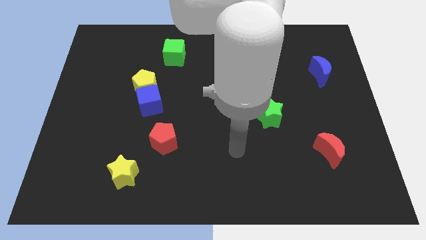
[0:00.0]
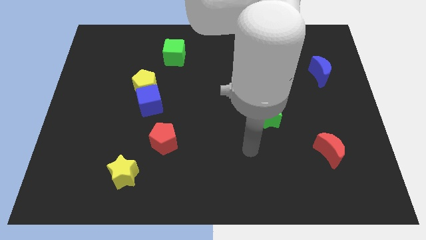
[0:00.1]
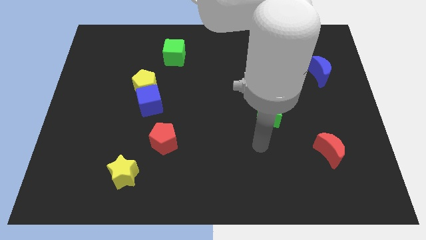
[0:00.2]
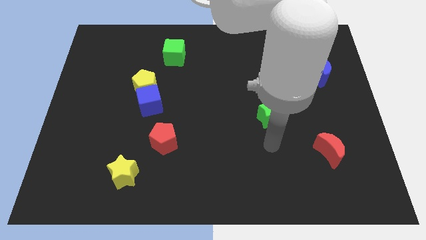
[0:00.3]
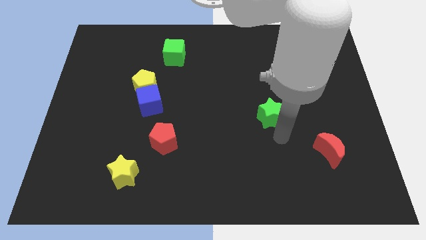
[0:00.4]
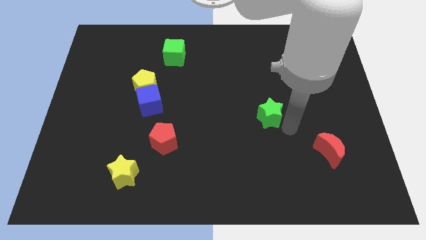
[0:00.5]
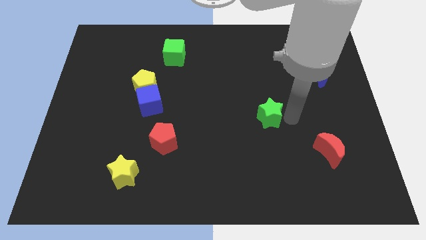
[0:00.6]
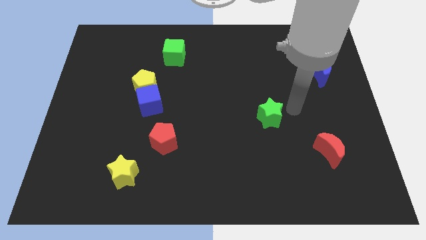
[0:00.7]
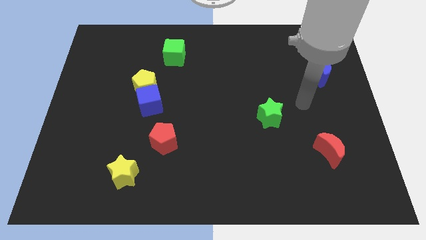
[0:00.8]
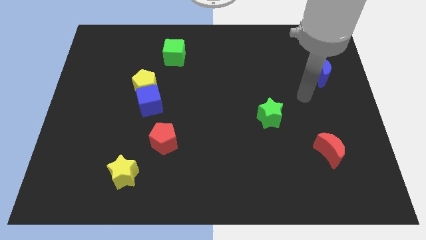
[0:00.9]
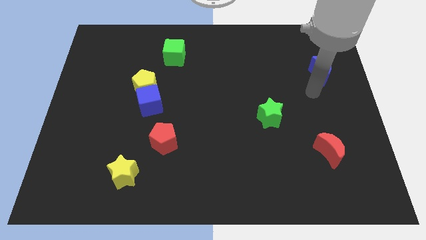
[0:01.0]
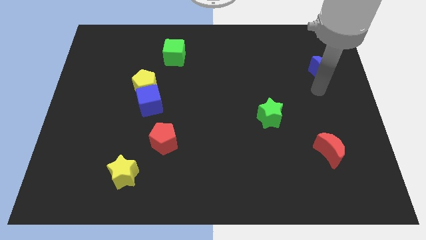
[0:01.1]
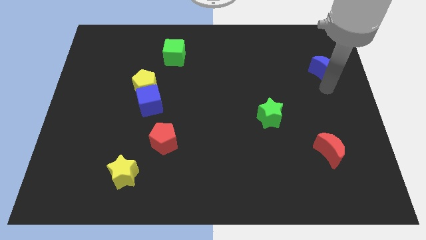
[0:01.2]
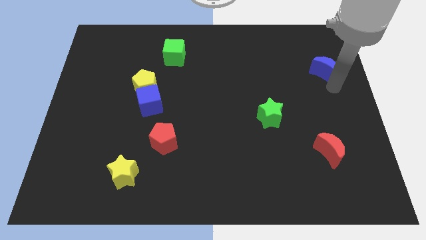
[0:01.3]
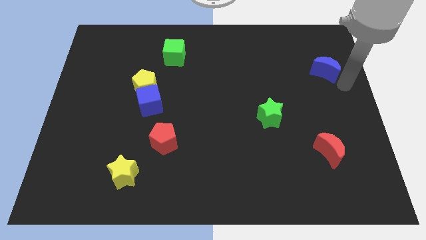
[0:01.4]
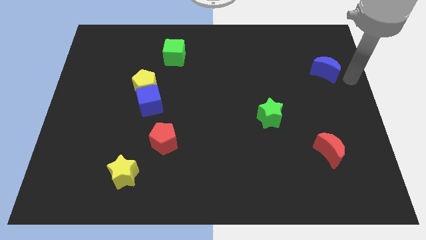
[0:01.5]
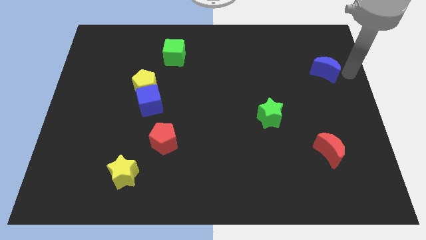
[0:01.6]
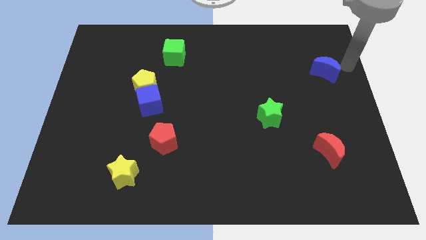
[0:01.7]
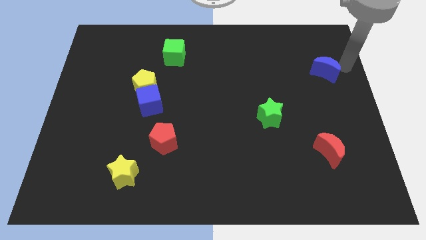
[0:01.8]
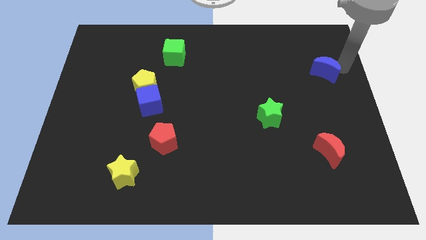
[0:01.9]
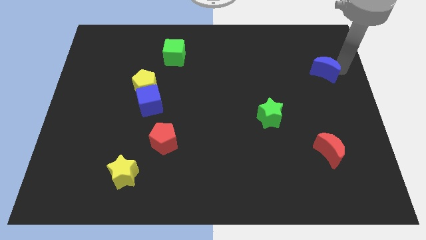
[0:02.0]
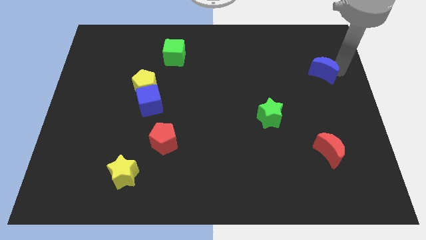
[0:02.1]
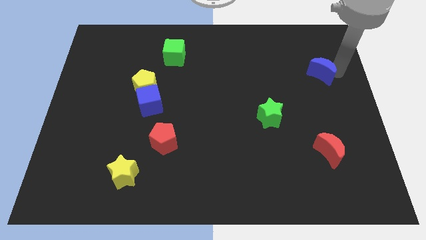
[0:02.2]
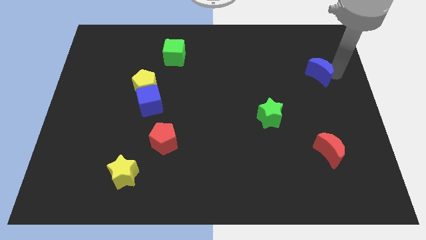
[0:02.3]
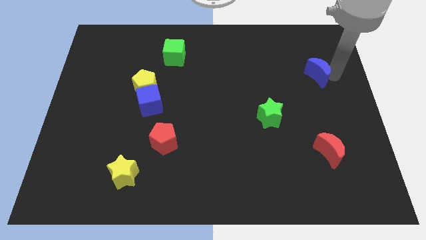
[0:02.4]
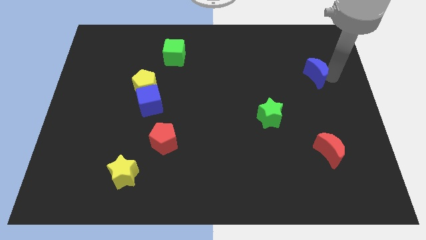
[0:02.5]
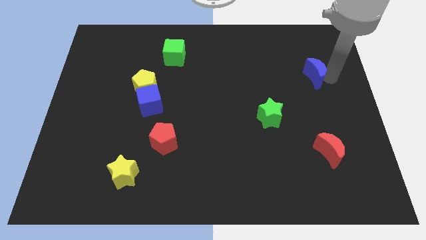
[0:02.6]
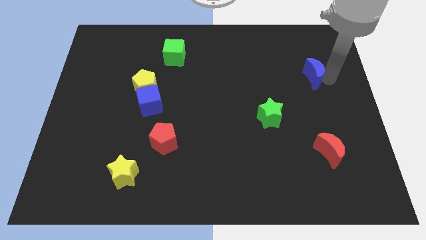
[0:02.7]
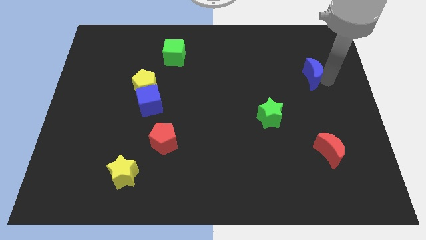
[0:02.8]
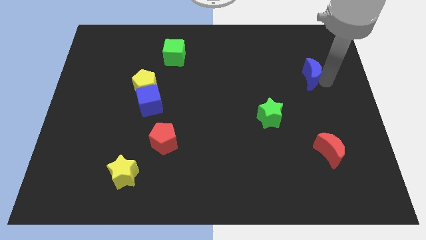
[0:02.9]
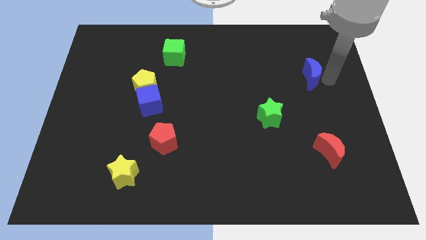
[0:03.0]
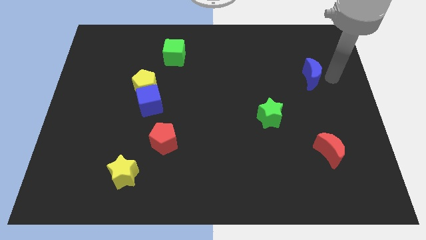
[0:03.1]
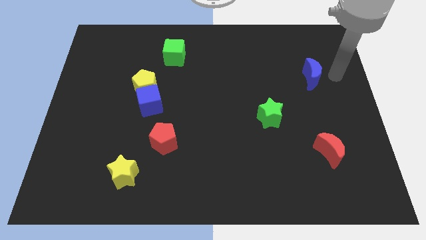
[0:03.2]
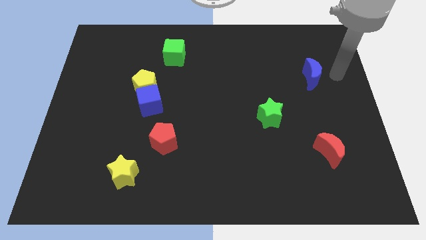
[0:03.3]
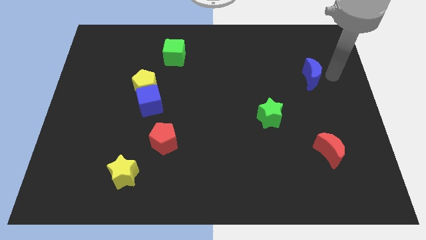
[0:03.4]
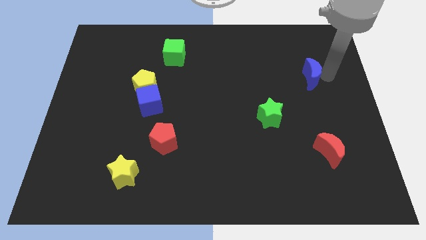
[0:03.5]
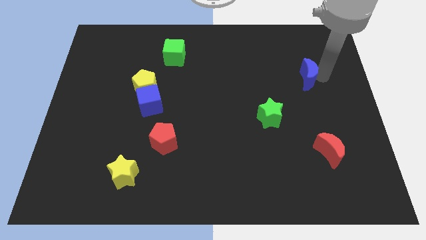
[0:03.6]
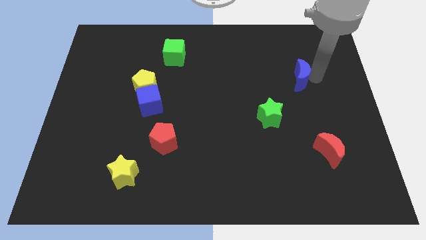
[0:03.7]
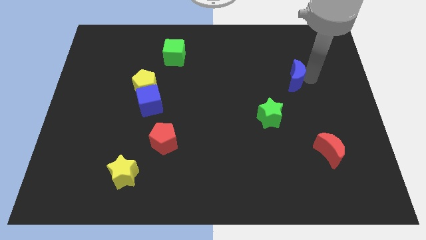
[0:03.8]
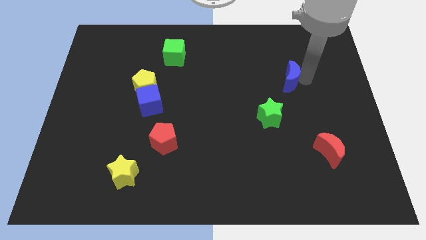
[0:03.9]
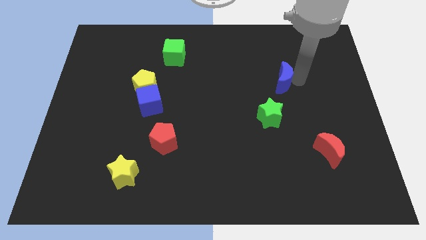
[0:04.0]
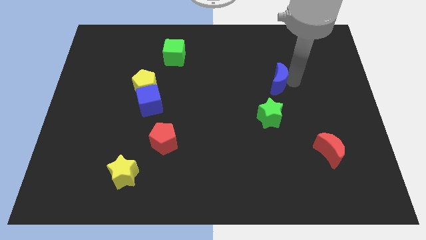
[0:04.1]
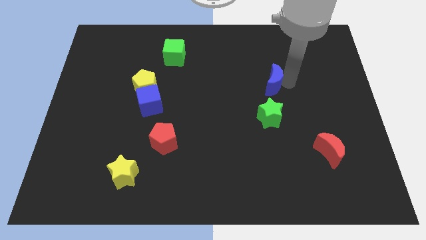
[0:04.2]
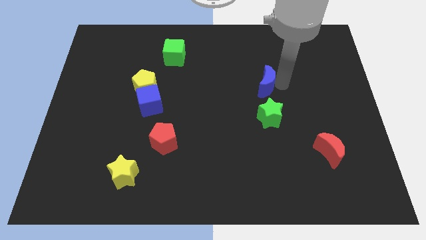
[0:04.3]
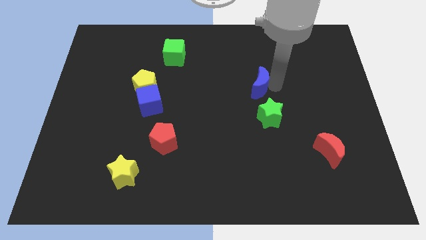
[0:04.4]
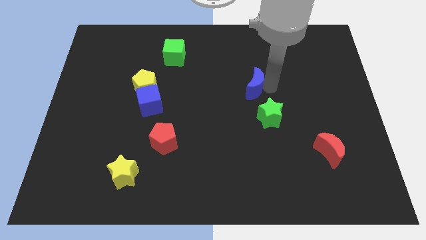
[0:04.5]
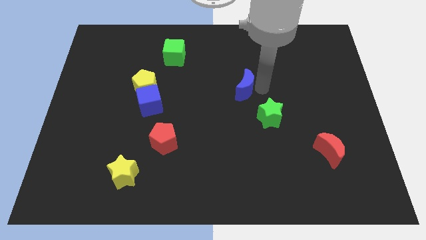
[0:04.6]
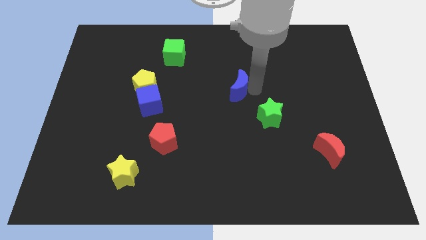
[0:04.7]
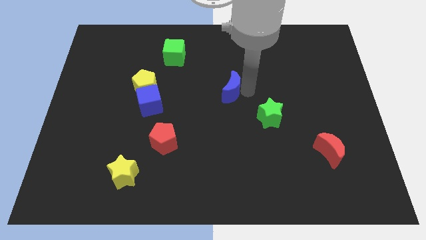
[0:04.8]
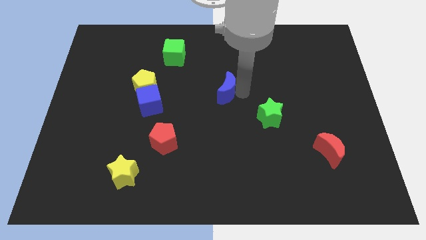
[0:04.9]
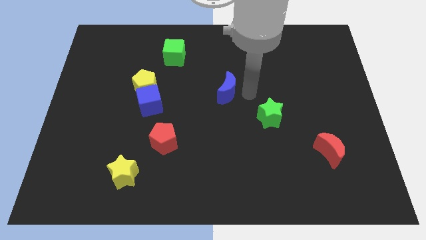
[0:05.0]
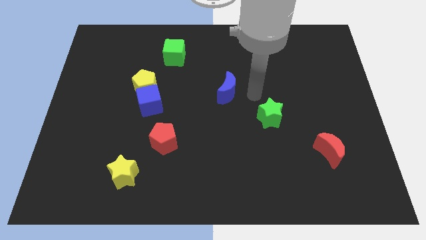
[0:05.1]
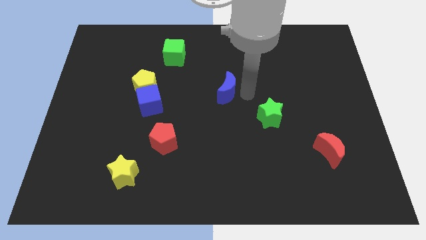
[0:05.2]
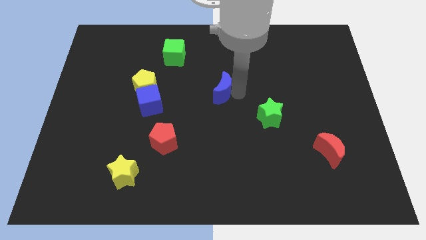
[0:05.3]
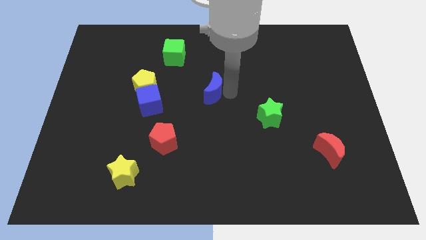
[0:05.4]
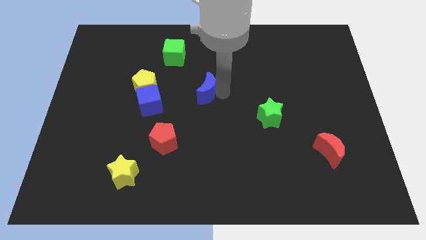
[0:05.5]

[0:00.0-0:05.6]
move the blue moon right of the yellow pentagon

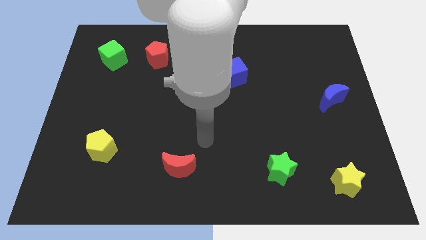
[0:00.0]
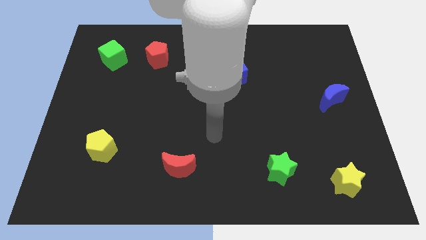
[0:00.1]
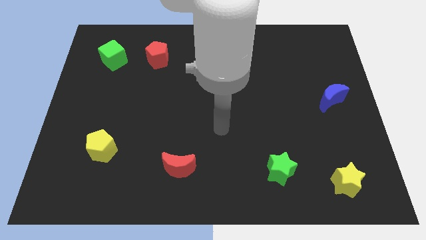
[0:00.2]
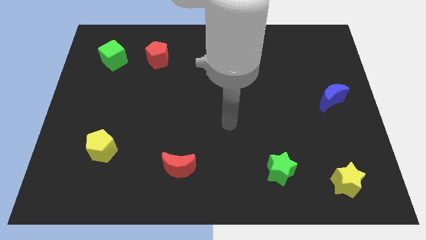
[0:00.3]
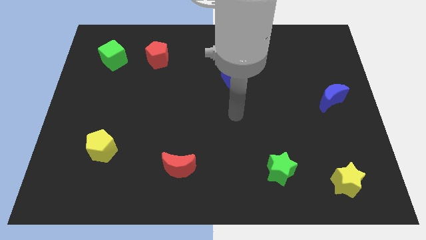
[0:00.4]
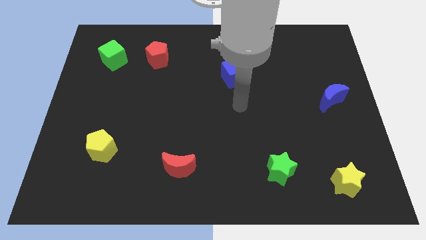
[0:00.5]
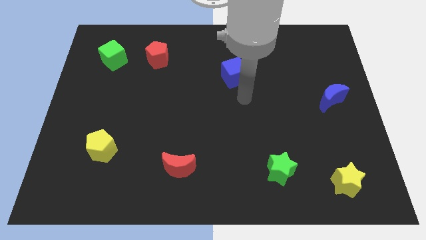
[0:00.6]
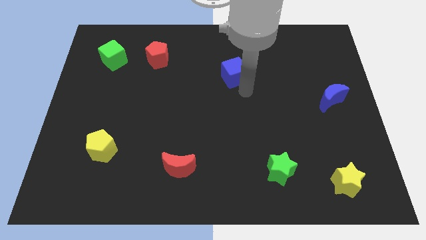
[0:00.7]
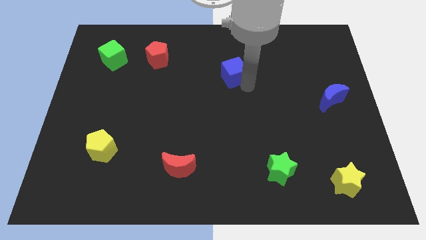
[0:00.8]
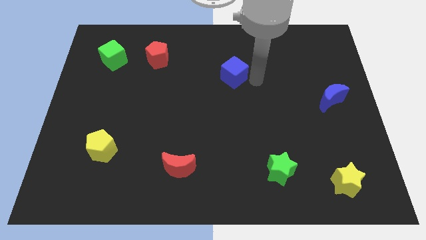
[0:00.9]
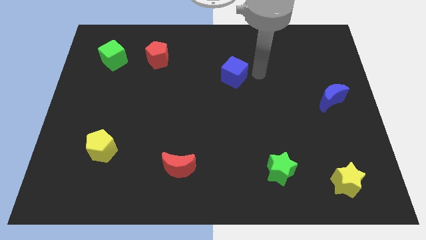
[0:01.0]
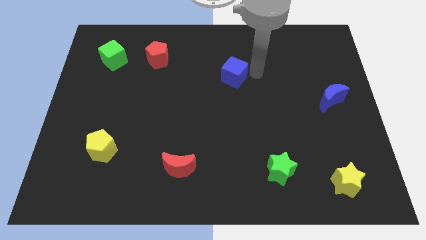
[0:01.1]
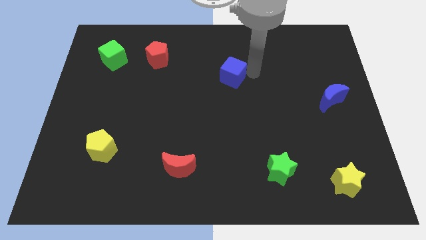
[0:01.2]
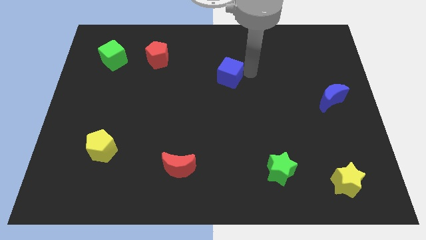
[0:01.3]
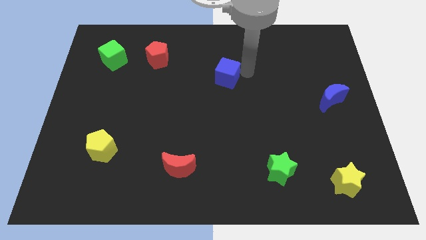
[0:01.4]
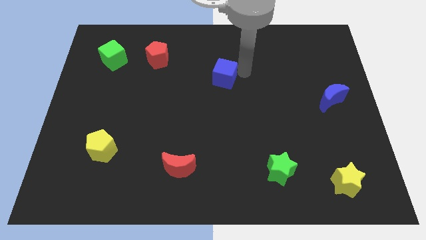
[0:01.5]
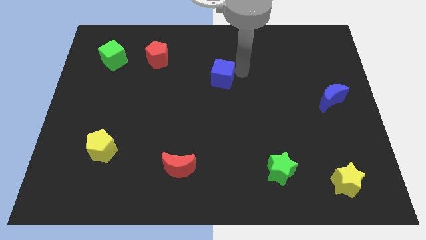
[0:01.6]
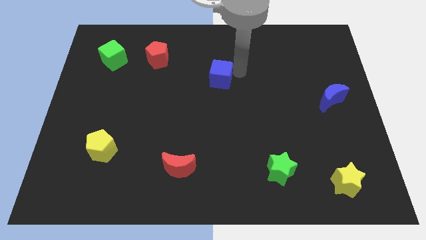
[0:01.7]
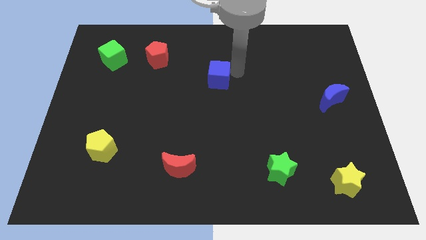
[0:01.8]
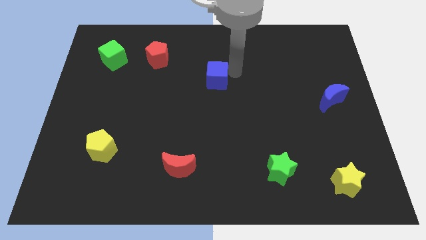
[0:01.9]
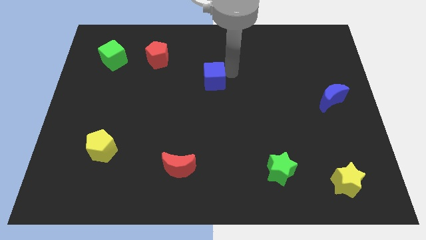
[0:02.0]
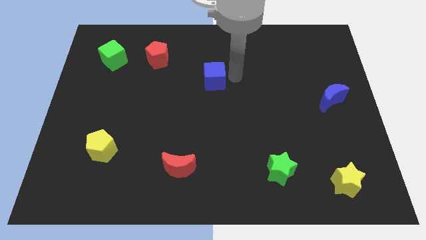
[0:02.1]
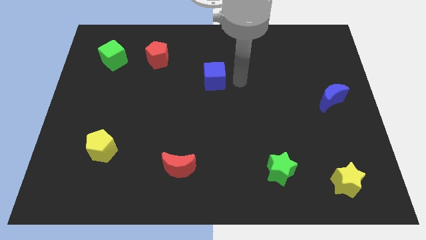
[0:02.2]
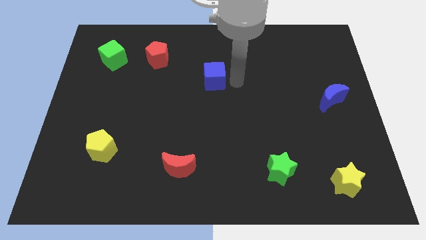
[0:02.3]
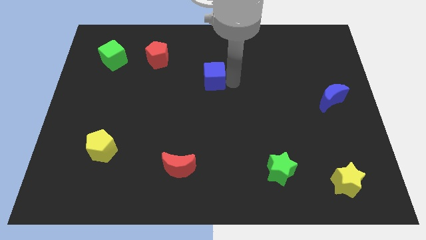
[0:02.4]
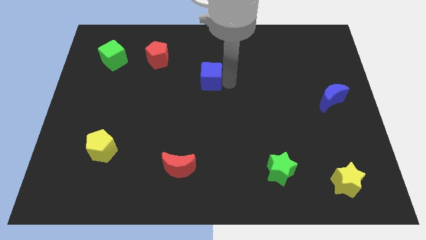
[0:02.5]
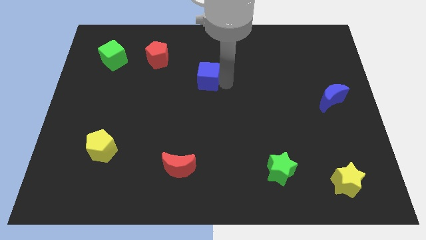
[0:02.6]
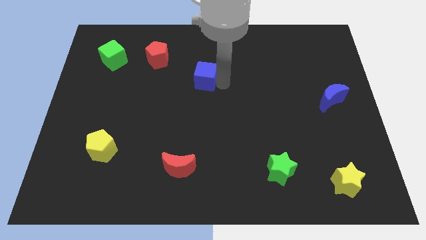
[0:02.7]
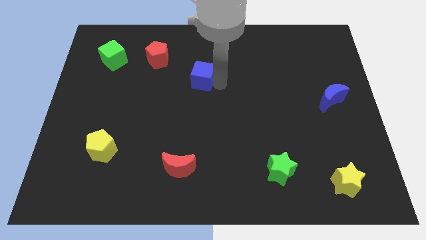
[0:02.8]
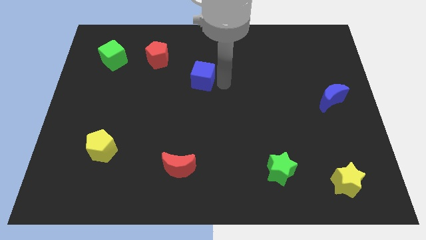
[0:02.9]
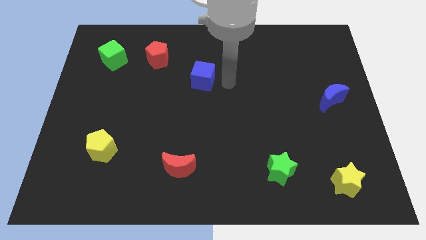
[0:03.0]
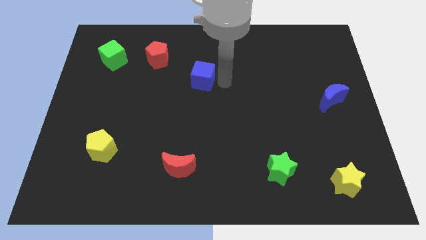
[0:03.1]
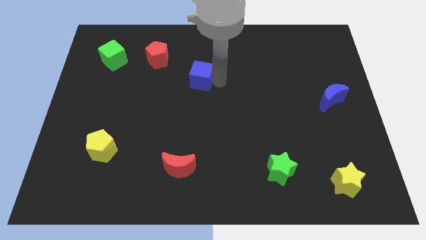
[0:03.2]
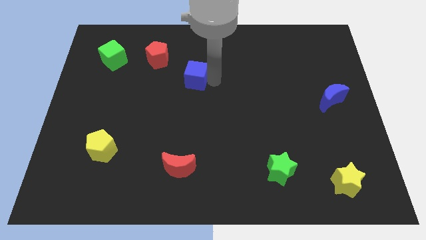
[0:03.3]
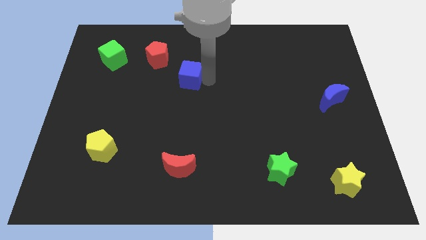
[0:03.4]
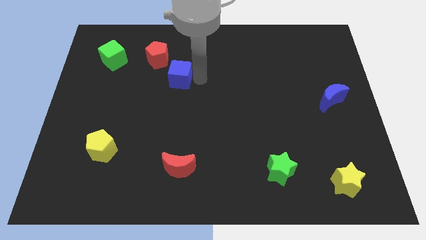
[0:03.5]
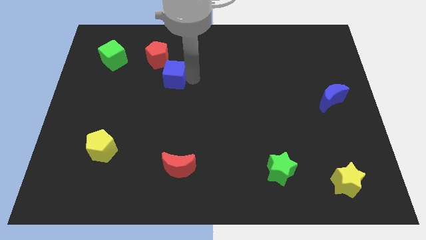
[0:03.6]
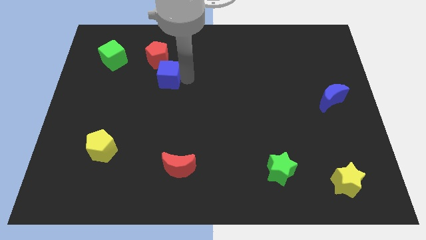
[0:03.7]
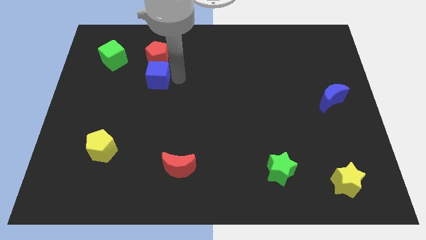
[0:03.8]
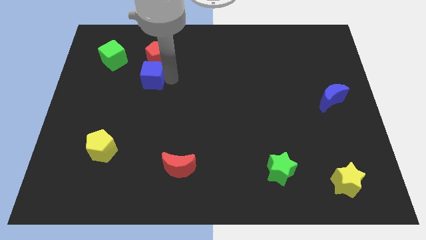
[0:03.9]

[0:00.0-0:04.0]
put the blue cube to the bottom left side of the red pentagon
